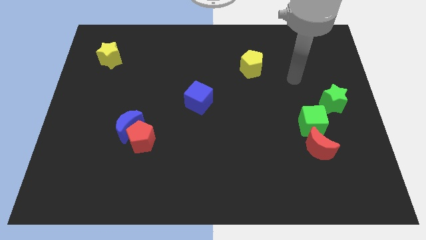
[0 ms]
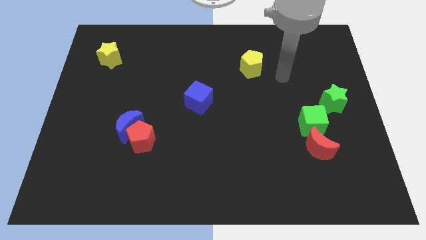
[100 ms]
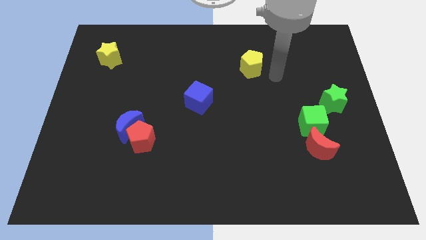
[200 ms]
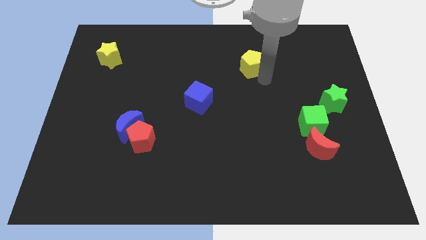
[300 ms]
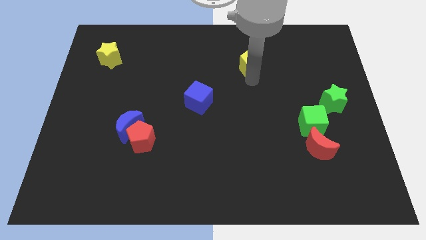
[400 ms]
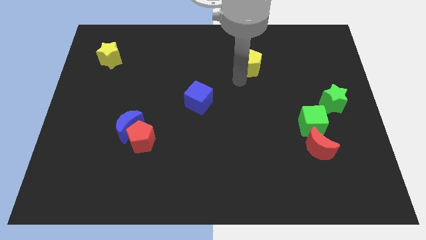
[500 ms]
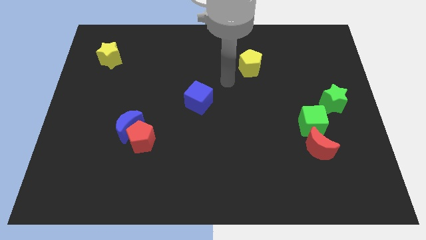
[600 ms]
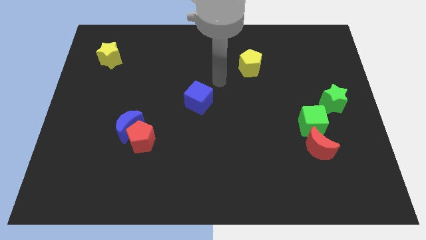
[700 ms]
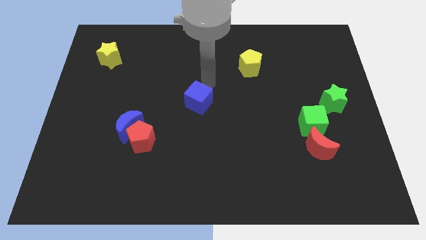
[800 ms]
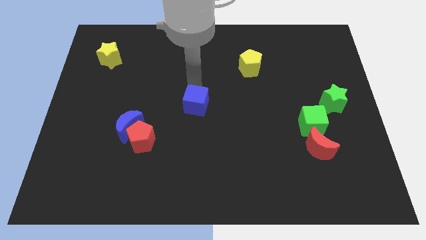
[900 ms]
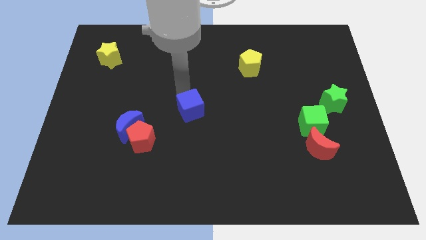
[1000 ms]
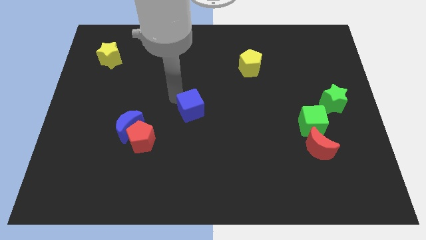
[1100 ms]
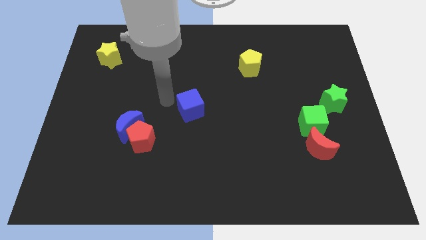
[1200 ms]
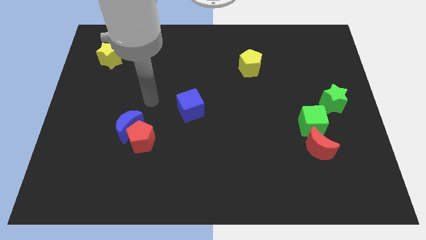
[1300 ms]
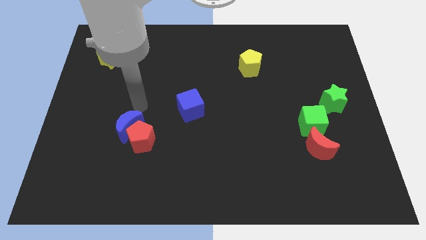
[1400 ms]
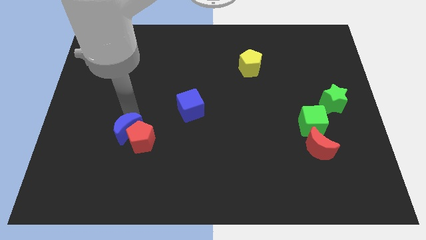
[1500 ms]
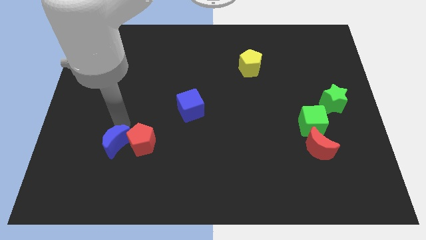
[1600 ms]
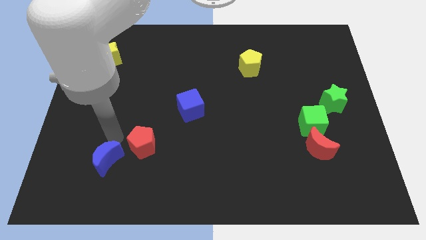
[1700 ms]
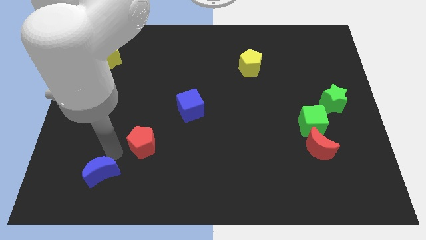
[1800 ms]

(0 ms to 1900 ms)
pull the red pentagon apart from the blue moon

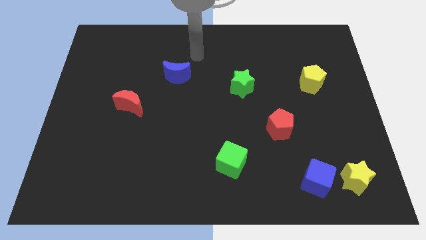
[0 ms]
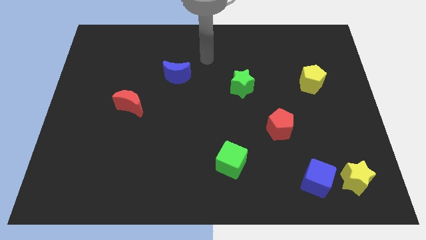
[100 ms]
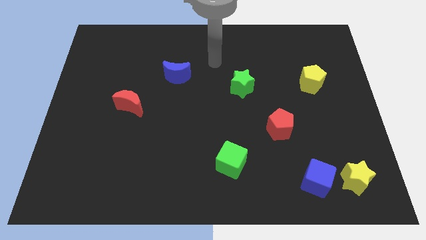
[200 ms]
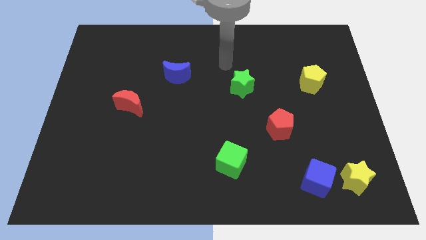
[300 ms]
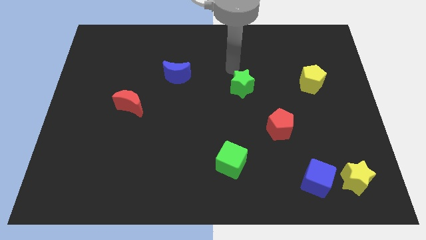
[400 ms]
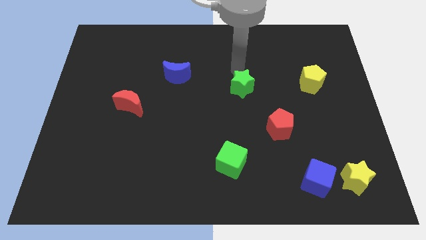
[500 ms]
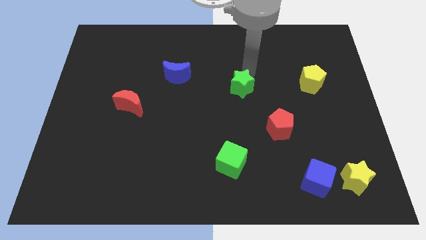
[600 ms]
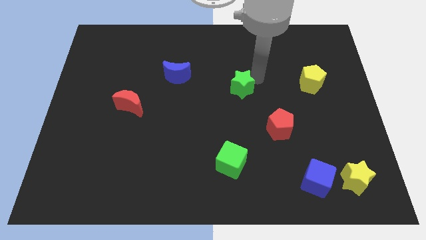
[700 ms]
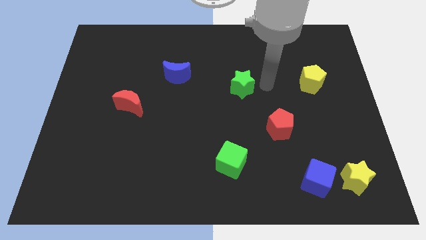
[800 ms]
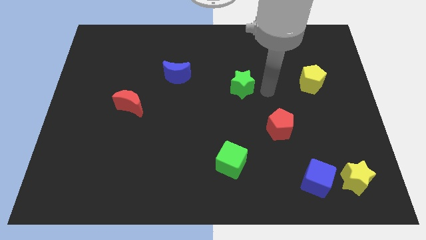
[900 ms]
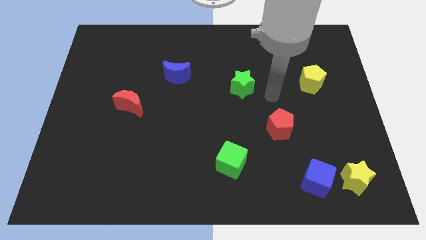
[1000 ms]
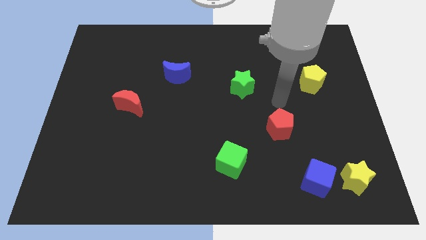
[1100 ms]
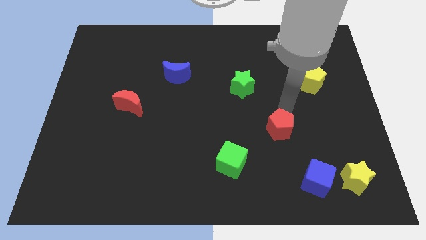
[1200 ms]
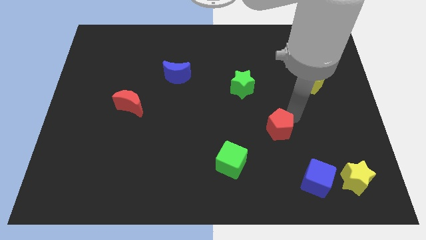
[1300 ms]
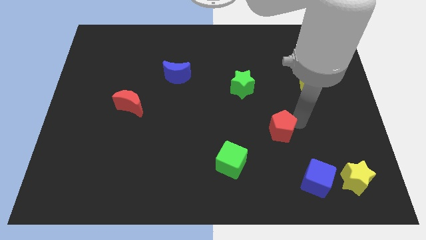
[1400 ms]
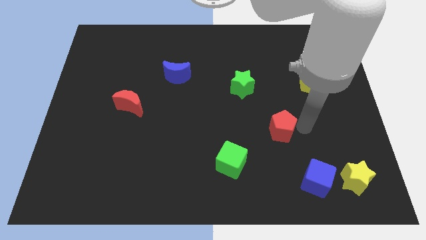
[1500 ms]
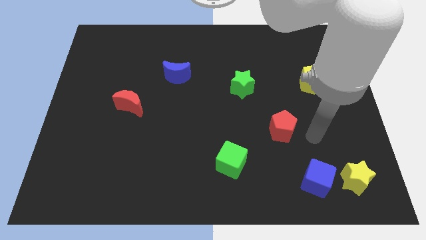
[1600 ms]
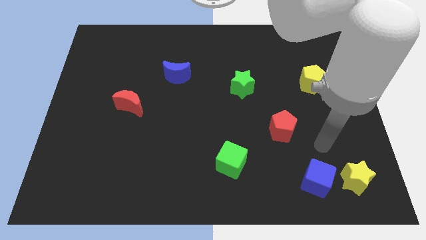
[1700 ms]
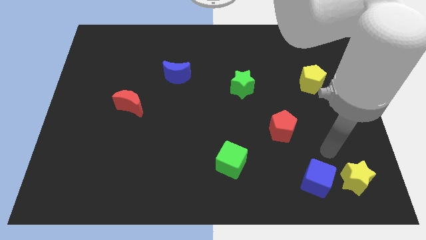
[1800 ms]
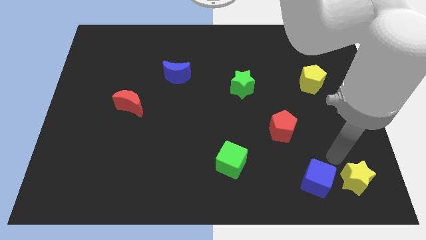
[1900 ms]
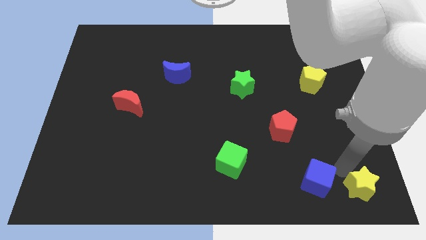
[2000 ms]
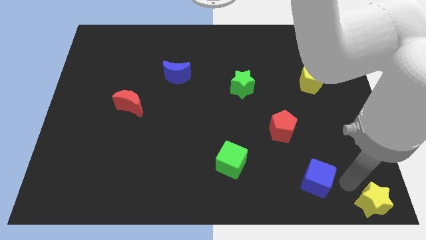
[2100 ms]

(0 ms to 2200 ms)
move the blue cube away from the yellow star

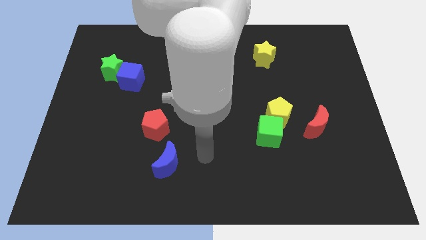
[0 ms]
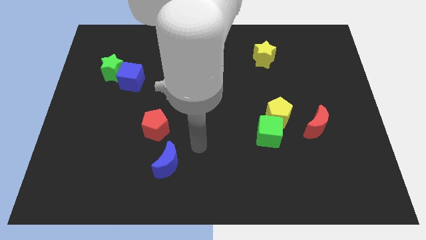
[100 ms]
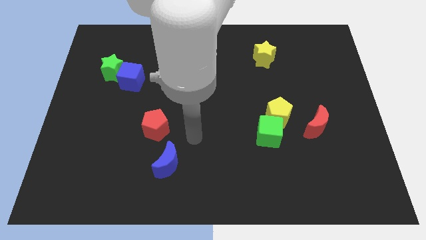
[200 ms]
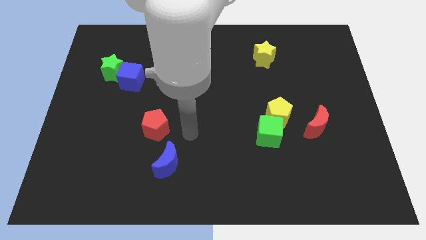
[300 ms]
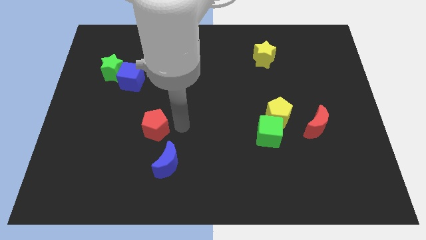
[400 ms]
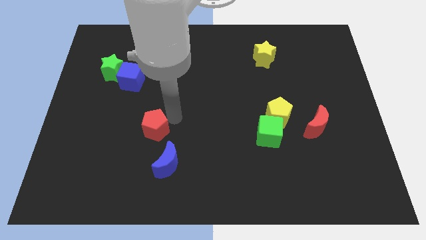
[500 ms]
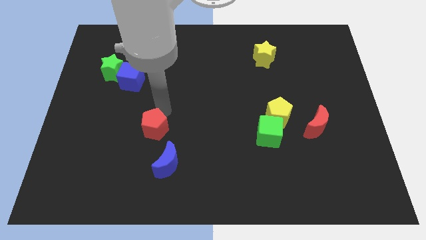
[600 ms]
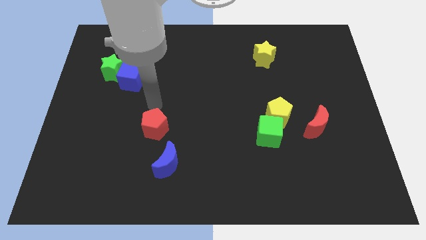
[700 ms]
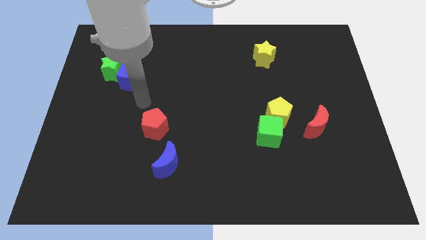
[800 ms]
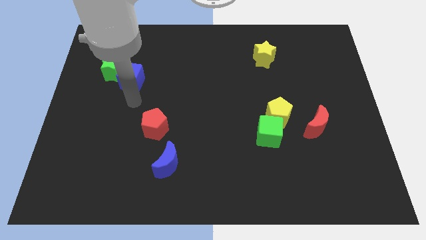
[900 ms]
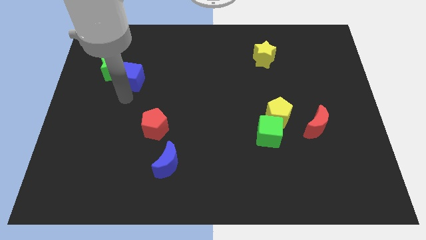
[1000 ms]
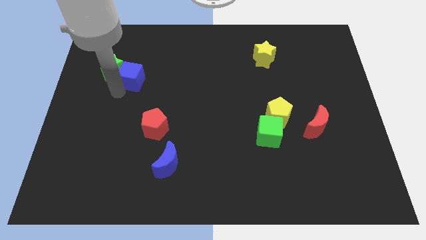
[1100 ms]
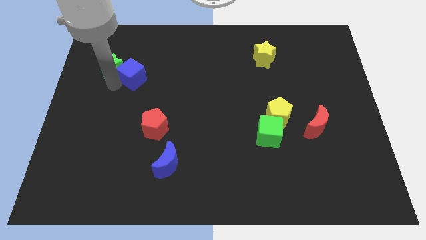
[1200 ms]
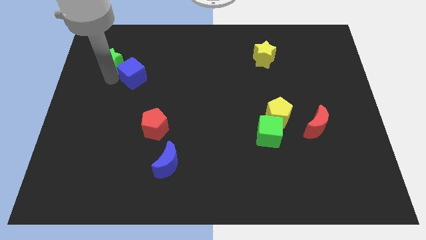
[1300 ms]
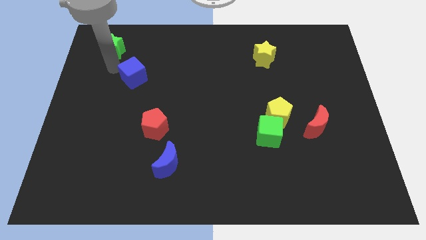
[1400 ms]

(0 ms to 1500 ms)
move the blue cube away from the green star

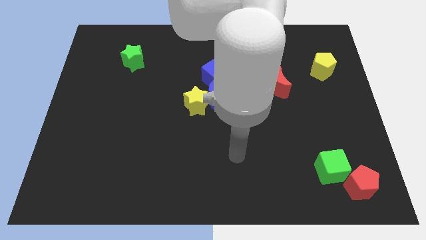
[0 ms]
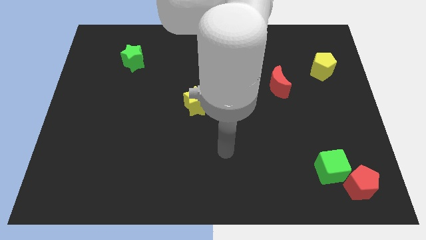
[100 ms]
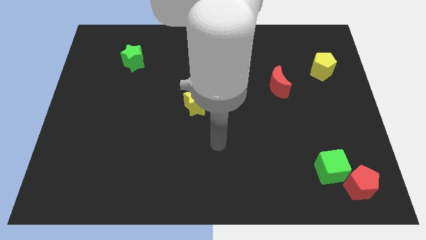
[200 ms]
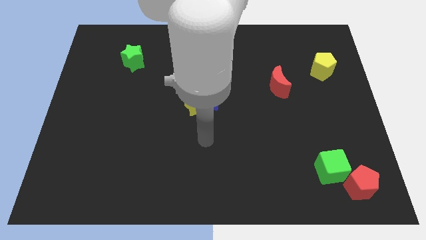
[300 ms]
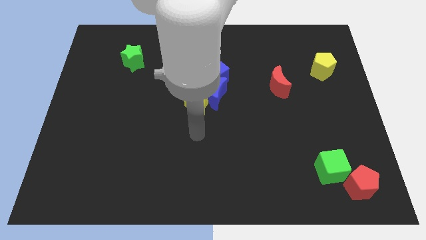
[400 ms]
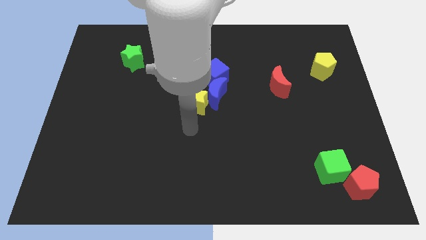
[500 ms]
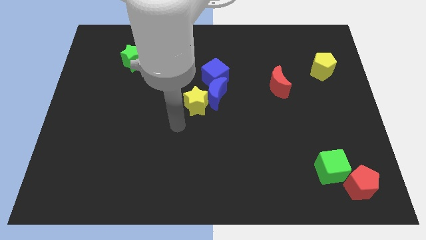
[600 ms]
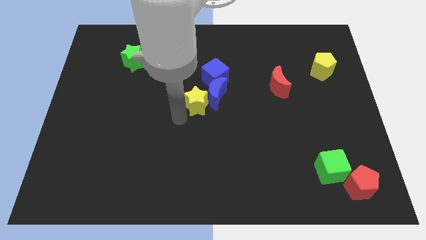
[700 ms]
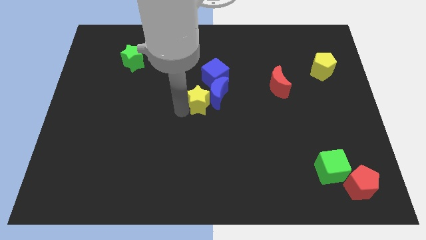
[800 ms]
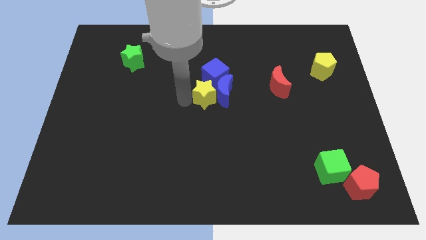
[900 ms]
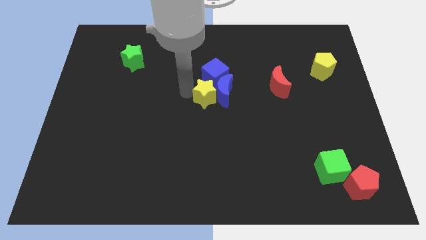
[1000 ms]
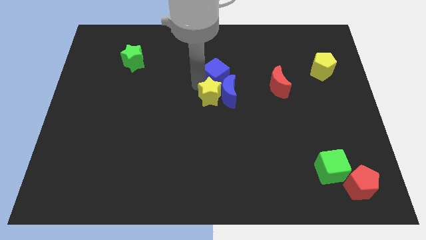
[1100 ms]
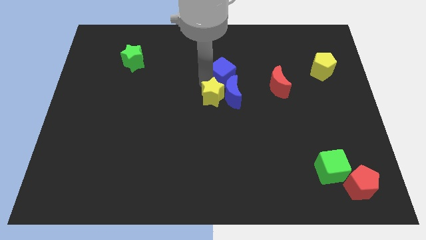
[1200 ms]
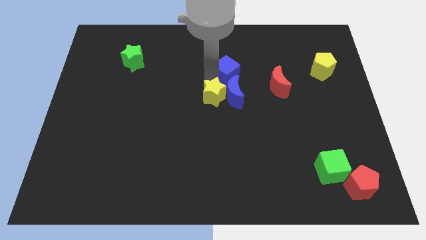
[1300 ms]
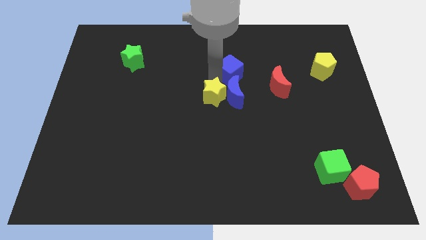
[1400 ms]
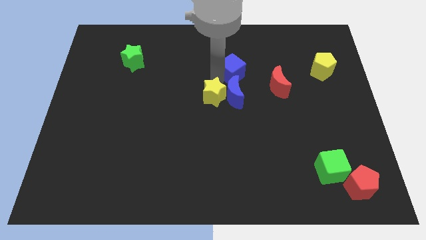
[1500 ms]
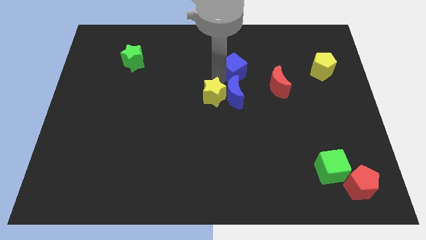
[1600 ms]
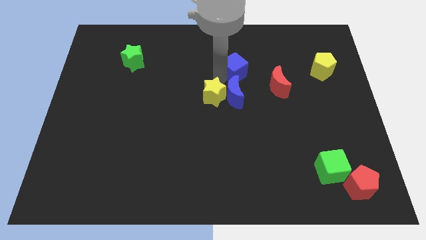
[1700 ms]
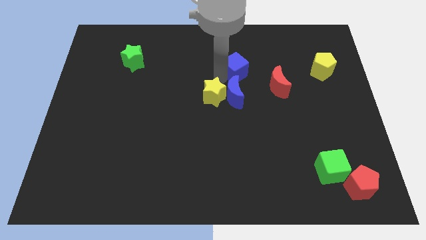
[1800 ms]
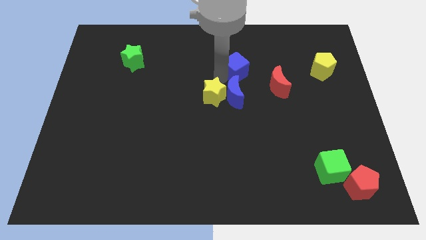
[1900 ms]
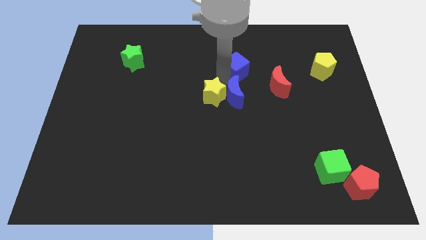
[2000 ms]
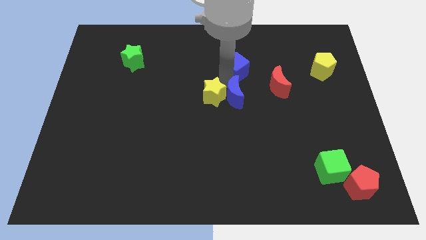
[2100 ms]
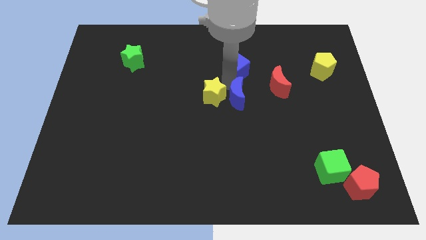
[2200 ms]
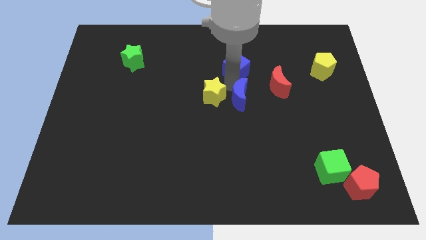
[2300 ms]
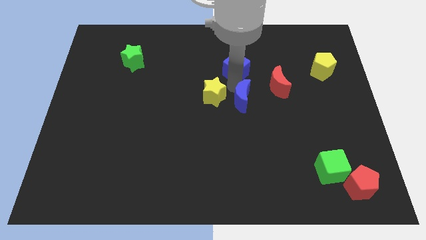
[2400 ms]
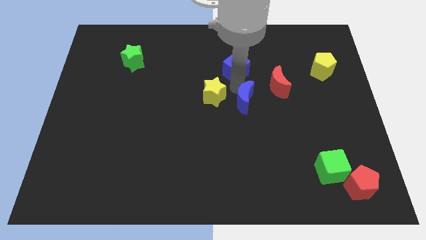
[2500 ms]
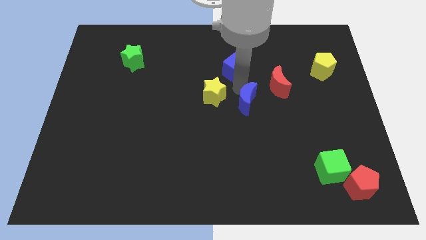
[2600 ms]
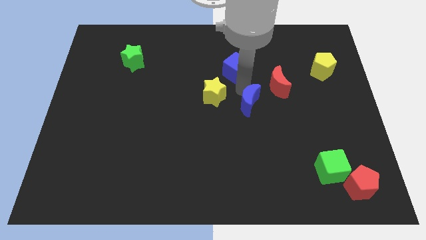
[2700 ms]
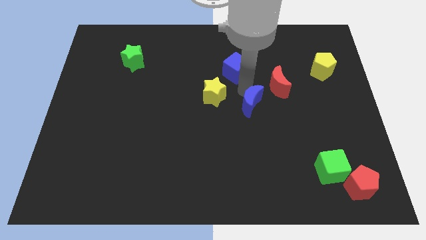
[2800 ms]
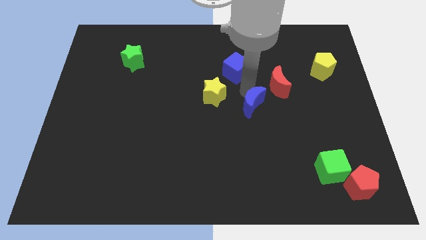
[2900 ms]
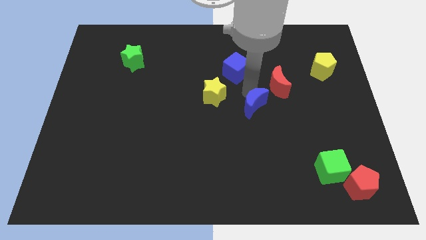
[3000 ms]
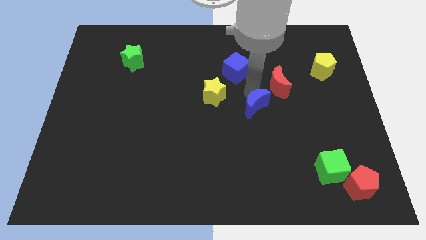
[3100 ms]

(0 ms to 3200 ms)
separate the blue moon from the yellow star and blue cube

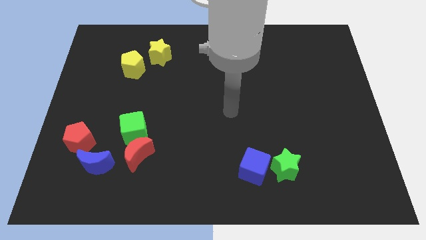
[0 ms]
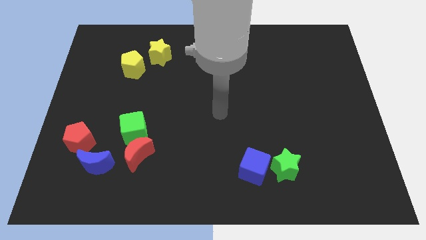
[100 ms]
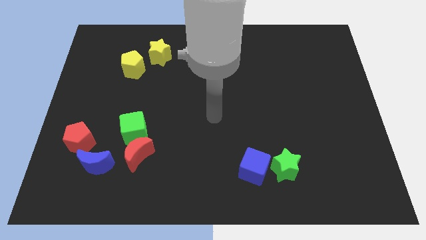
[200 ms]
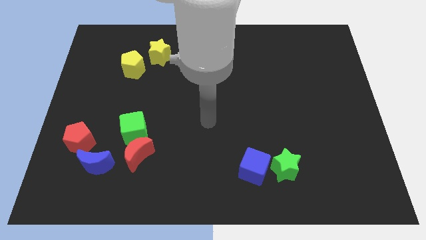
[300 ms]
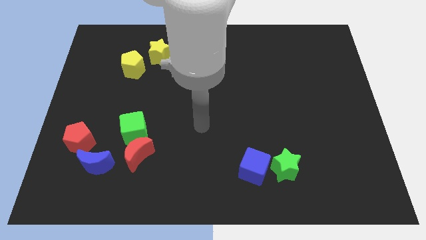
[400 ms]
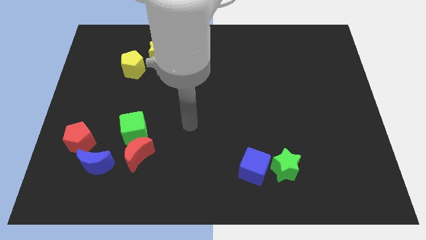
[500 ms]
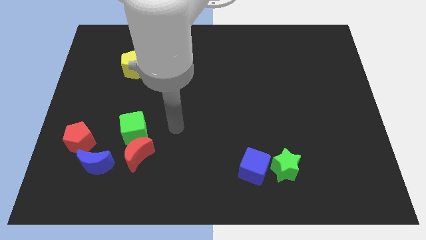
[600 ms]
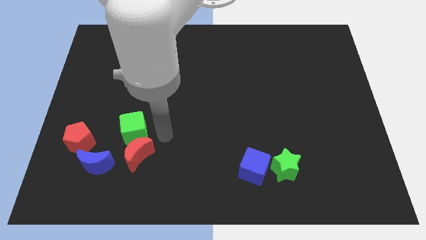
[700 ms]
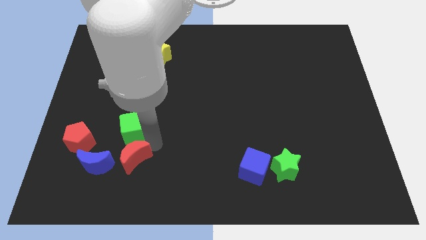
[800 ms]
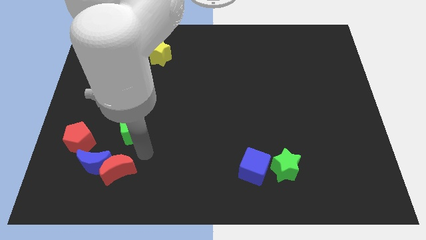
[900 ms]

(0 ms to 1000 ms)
separate the green cube from the red moon
